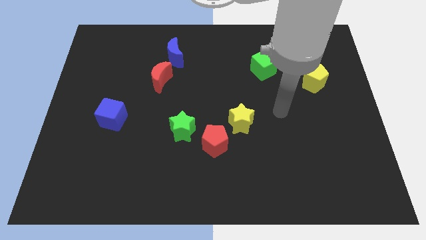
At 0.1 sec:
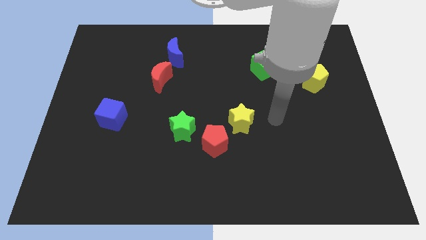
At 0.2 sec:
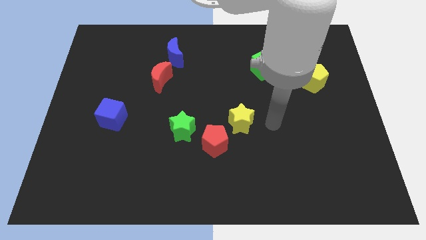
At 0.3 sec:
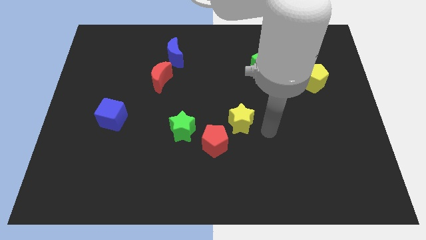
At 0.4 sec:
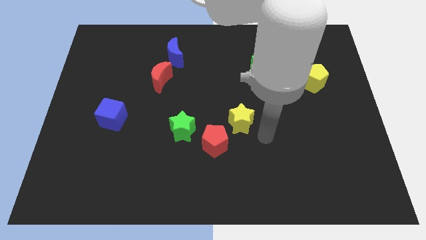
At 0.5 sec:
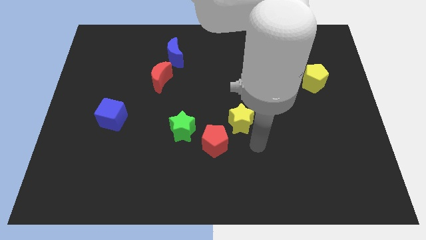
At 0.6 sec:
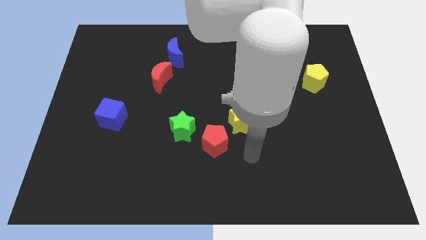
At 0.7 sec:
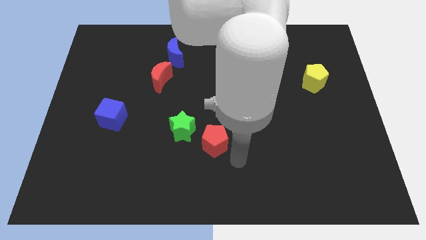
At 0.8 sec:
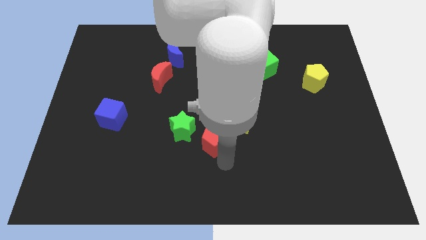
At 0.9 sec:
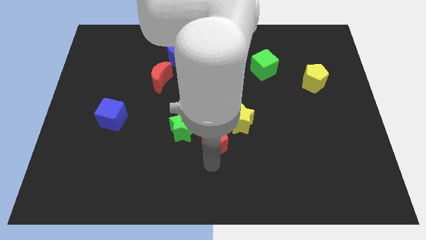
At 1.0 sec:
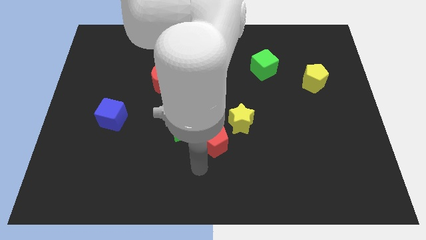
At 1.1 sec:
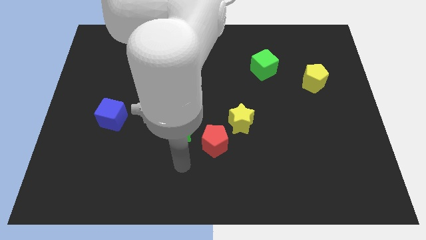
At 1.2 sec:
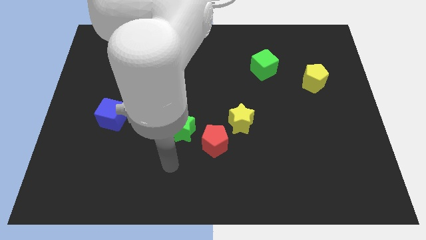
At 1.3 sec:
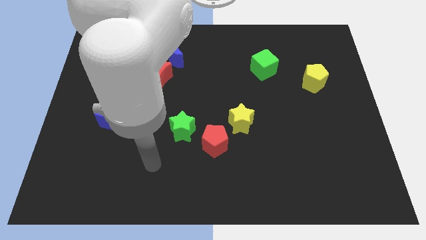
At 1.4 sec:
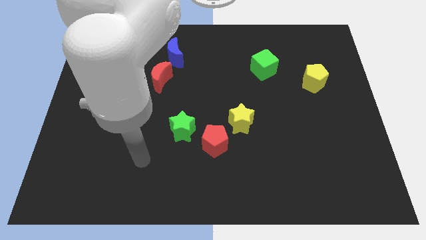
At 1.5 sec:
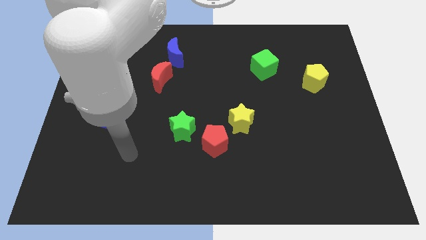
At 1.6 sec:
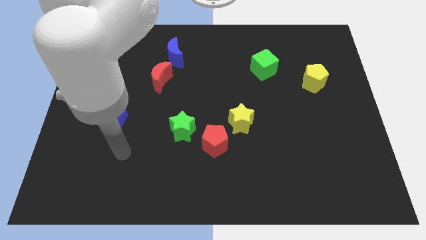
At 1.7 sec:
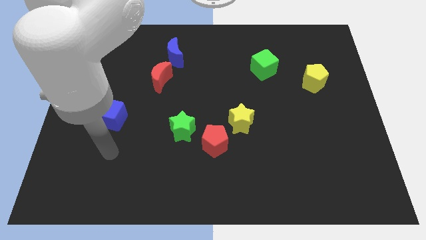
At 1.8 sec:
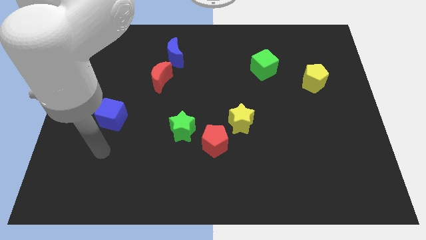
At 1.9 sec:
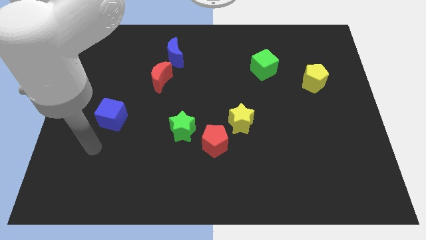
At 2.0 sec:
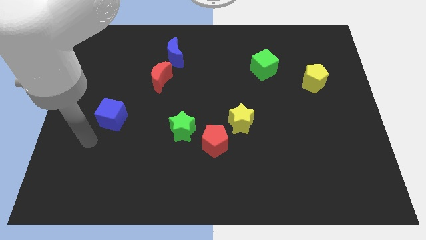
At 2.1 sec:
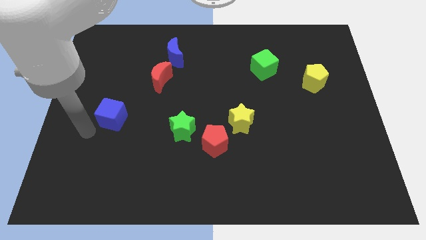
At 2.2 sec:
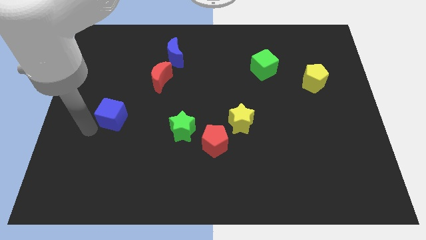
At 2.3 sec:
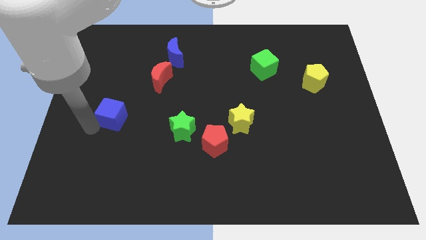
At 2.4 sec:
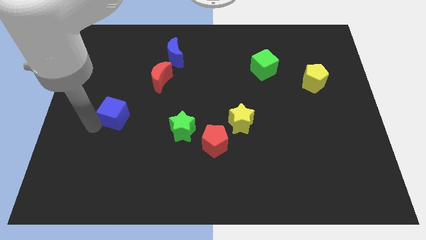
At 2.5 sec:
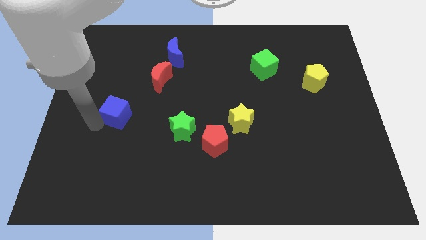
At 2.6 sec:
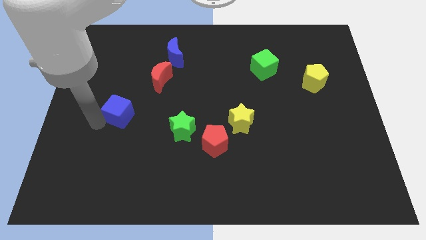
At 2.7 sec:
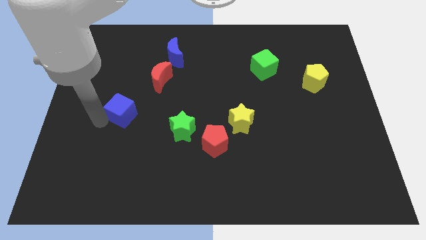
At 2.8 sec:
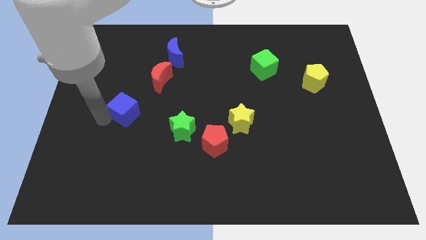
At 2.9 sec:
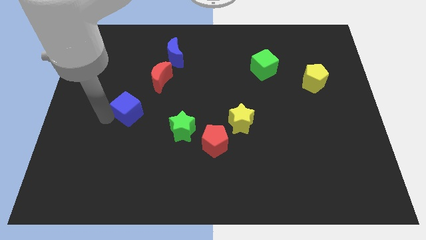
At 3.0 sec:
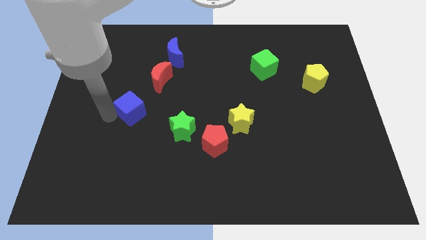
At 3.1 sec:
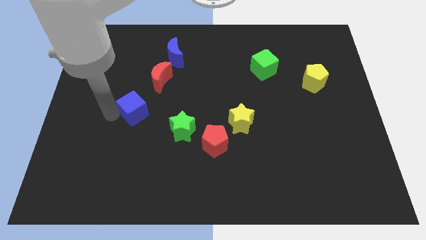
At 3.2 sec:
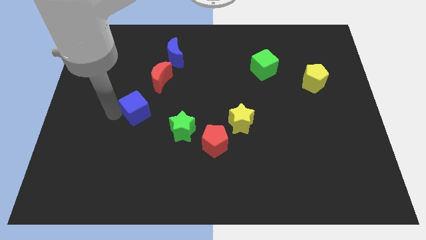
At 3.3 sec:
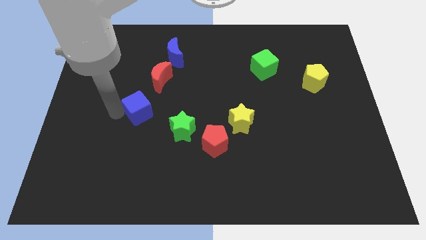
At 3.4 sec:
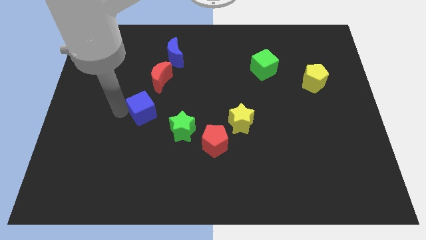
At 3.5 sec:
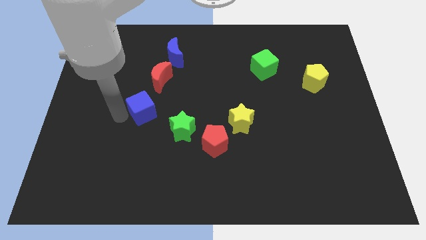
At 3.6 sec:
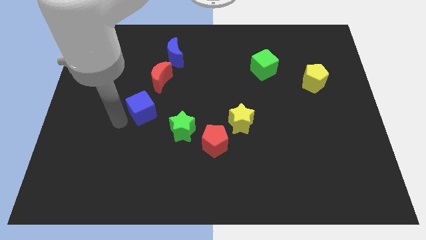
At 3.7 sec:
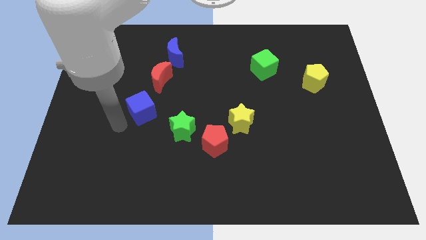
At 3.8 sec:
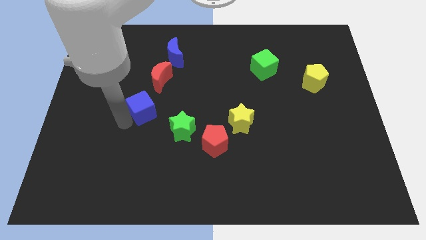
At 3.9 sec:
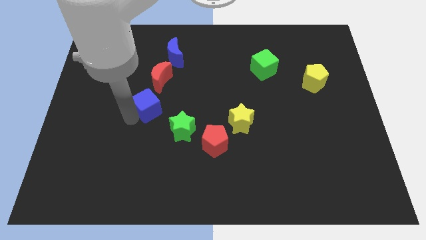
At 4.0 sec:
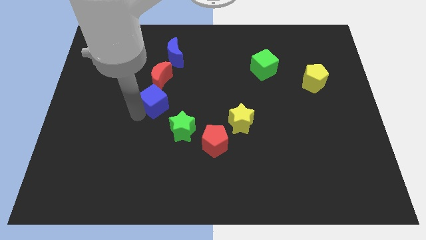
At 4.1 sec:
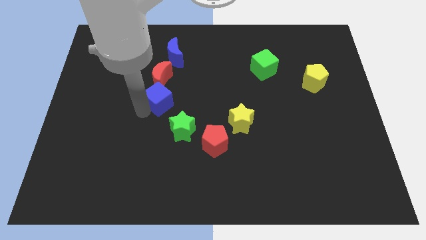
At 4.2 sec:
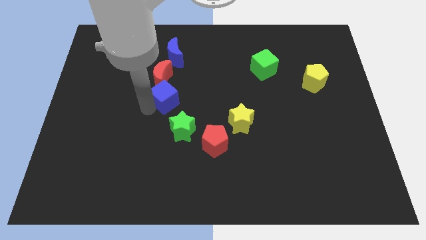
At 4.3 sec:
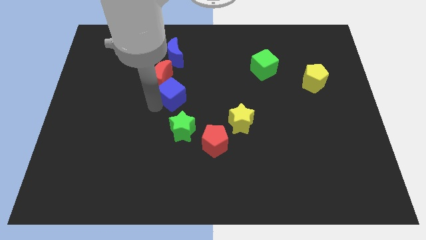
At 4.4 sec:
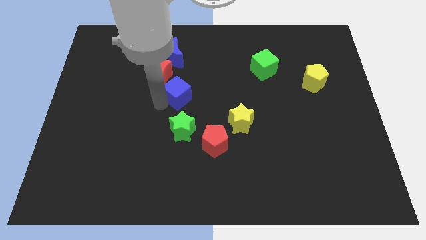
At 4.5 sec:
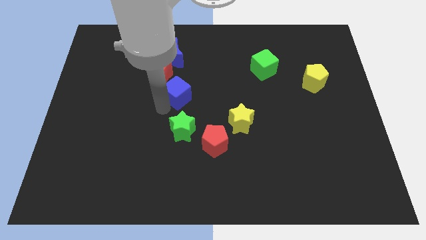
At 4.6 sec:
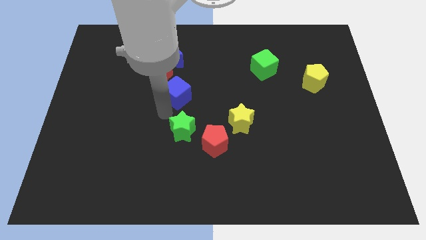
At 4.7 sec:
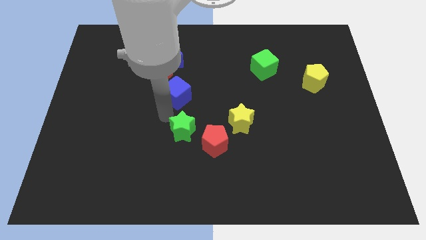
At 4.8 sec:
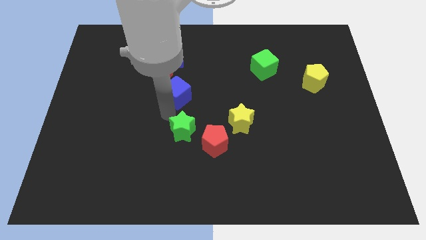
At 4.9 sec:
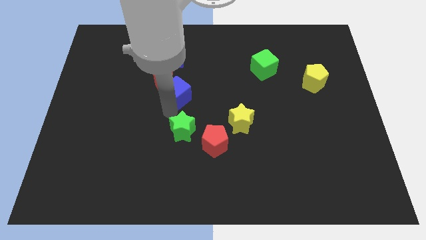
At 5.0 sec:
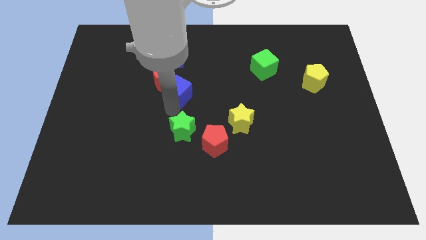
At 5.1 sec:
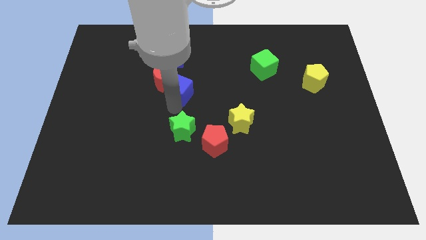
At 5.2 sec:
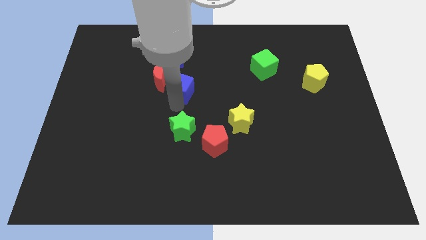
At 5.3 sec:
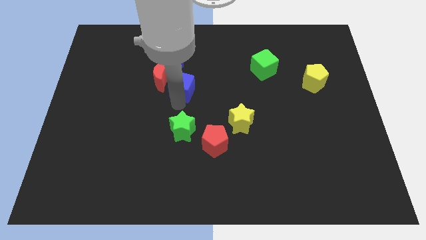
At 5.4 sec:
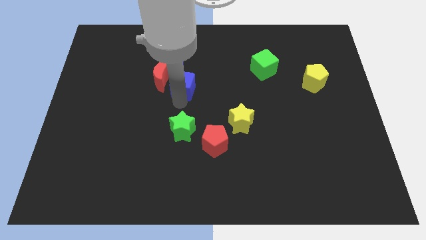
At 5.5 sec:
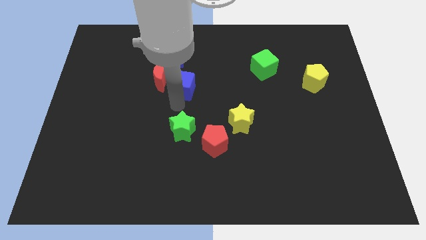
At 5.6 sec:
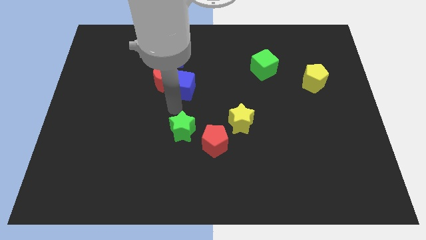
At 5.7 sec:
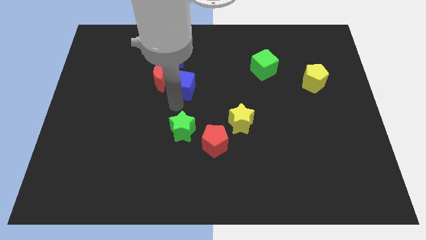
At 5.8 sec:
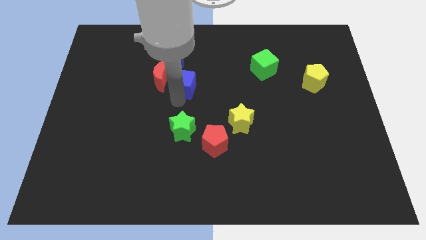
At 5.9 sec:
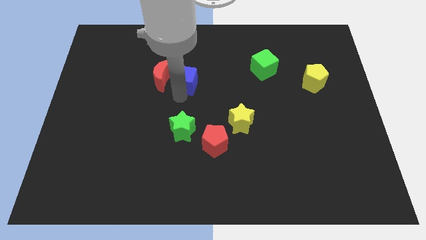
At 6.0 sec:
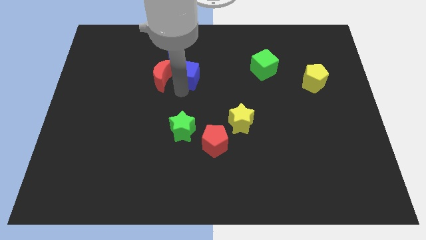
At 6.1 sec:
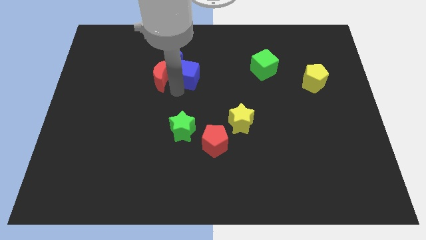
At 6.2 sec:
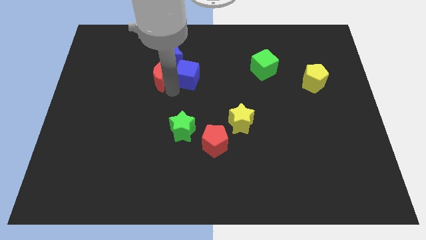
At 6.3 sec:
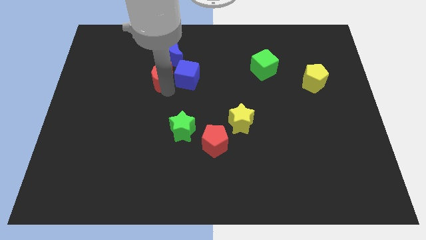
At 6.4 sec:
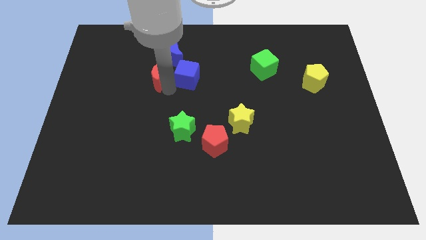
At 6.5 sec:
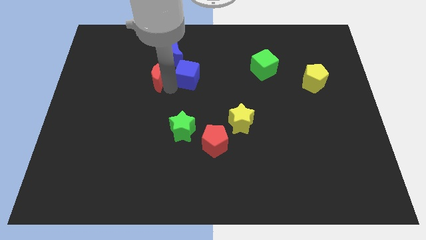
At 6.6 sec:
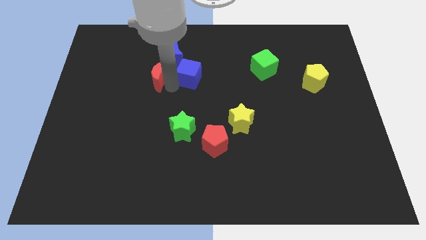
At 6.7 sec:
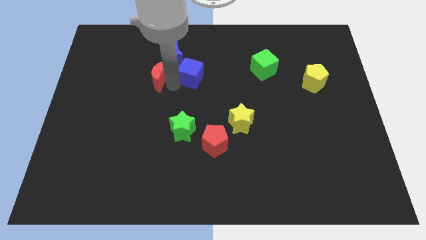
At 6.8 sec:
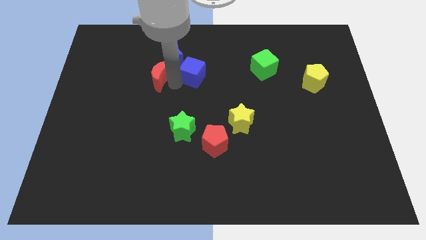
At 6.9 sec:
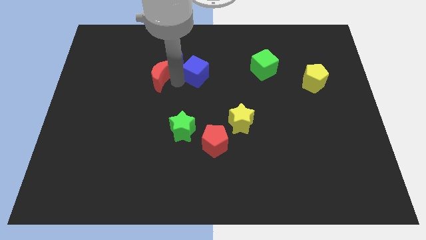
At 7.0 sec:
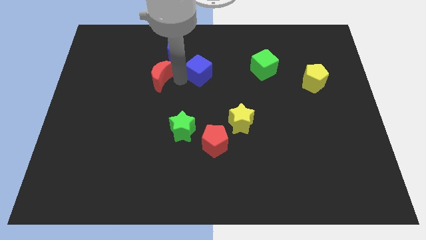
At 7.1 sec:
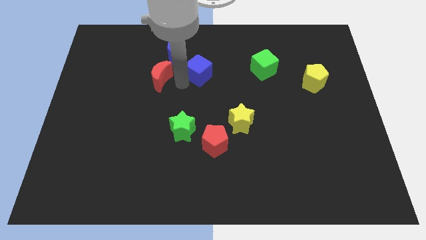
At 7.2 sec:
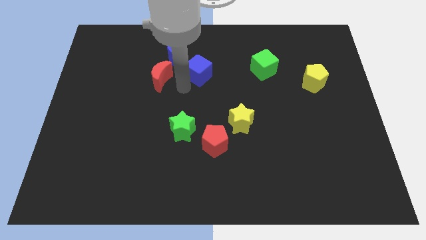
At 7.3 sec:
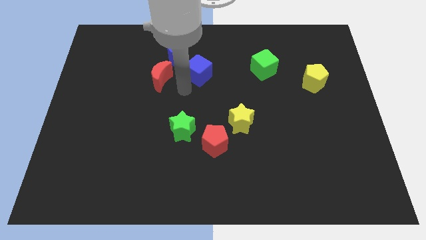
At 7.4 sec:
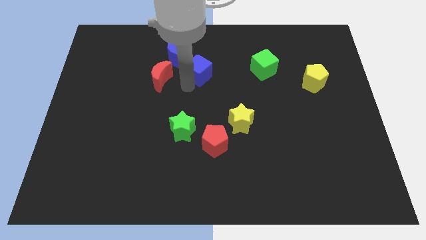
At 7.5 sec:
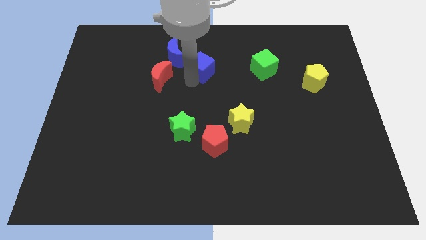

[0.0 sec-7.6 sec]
put the blue cube to the right side of the blue moon
